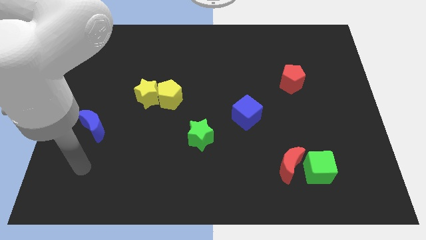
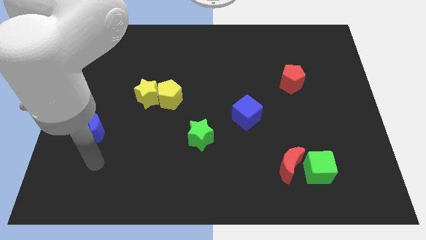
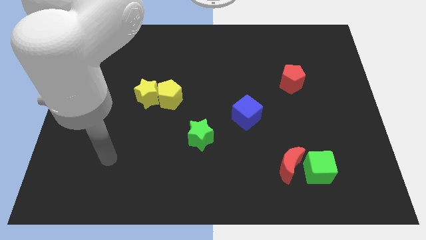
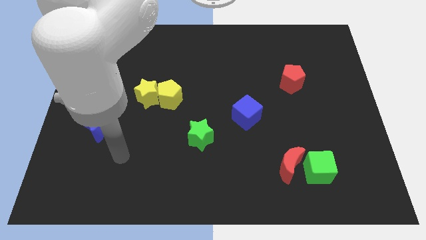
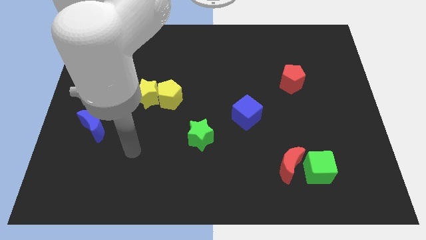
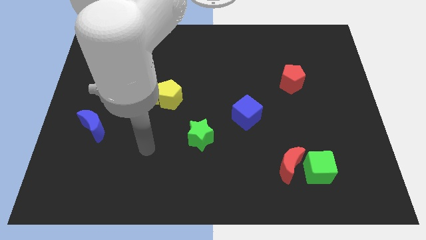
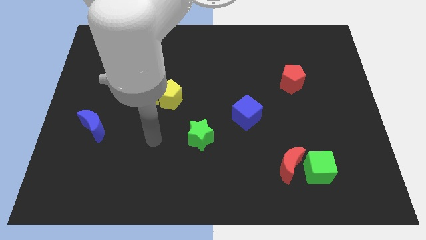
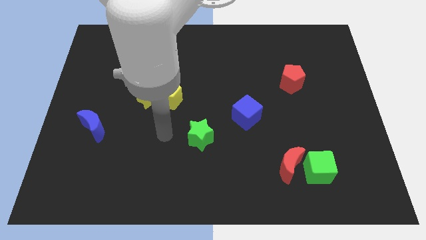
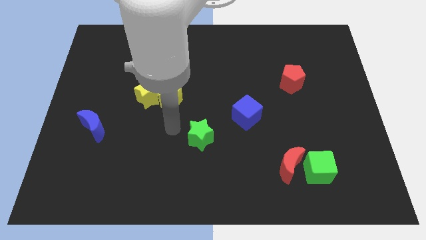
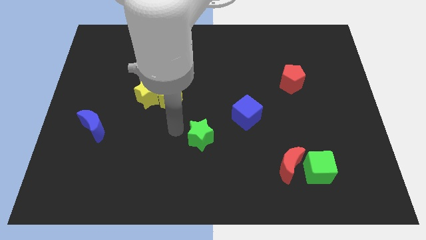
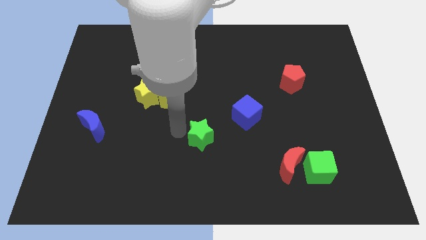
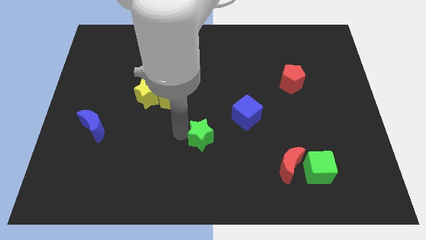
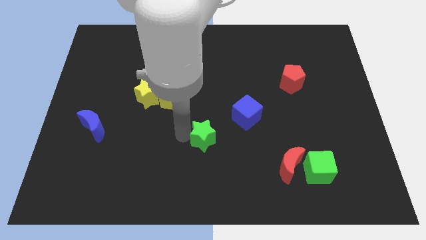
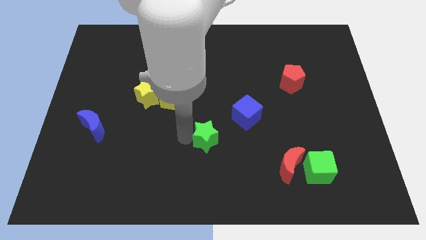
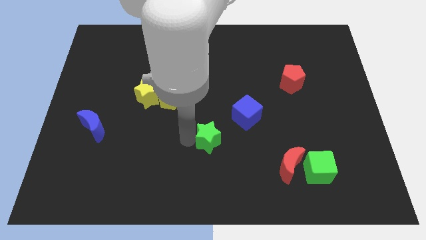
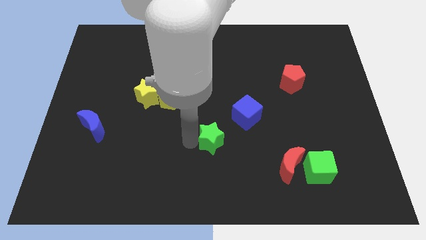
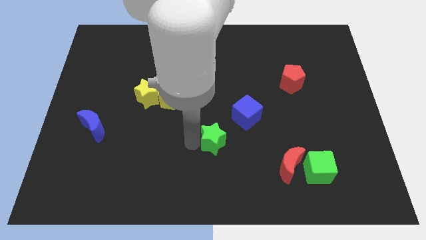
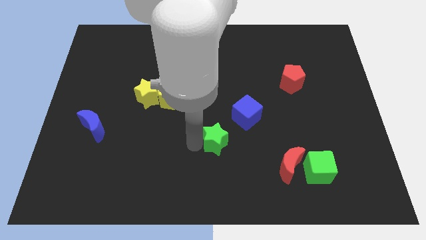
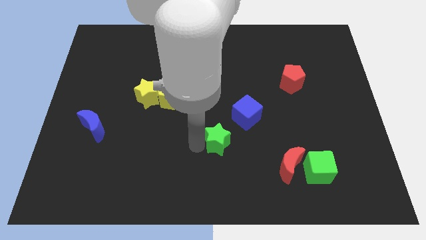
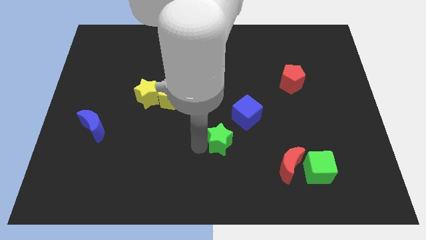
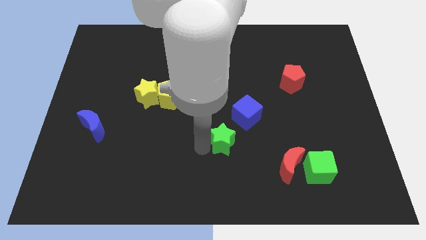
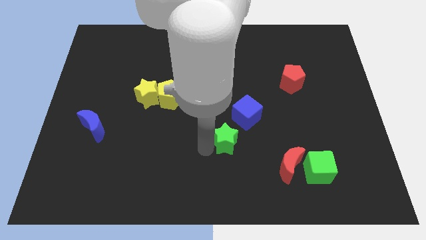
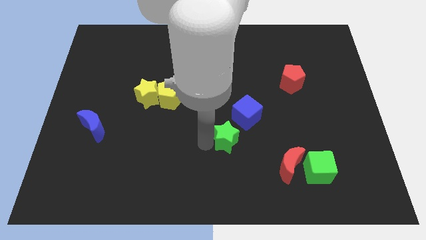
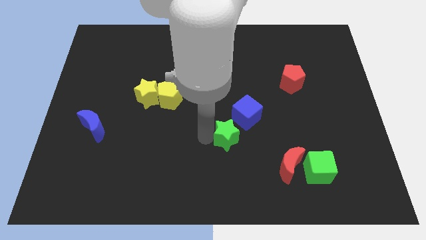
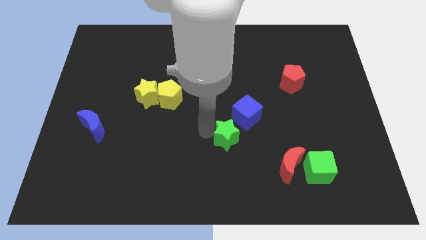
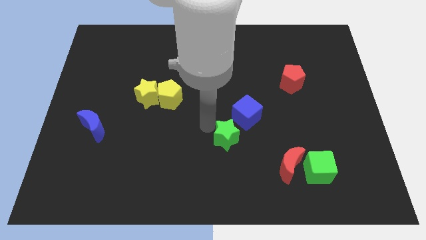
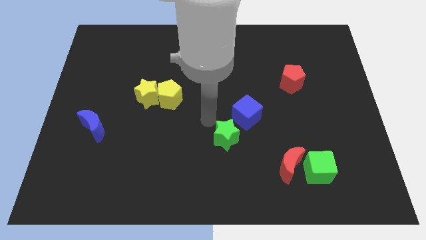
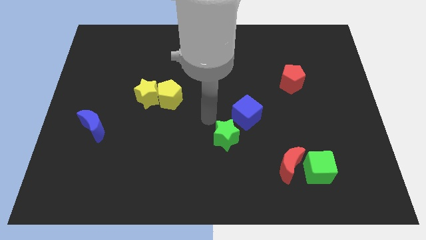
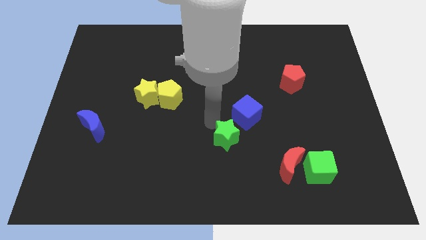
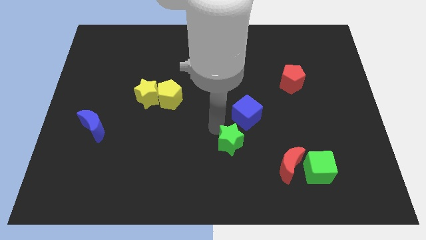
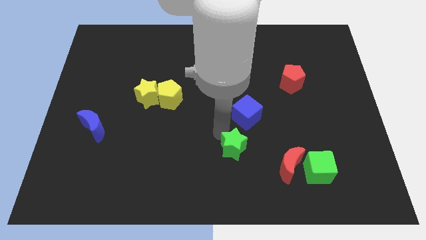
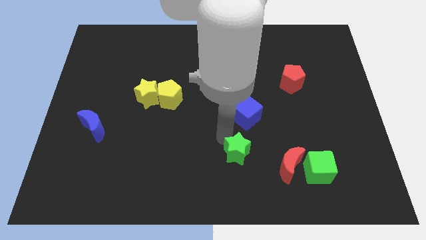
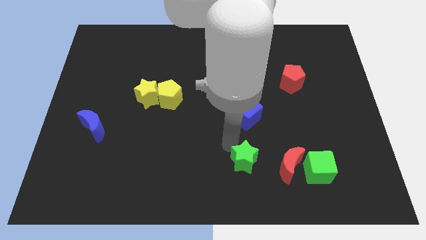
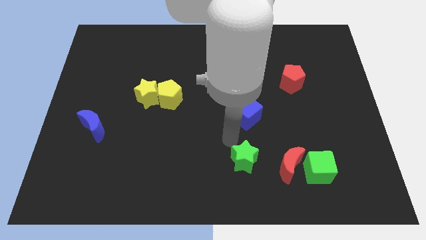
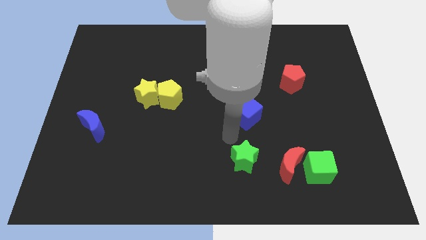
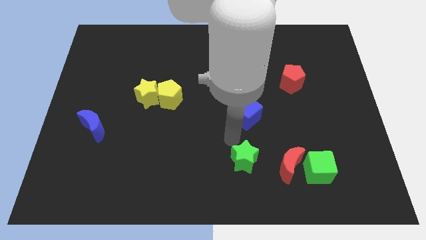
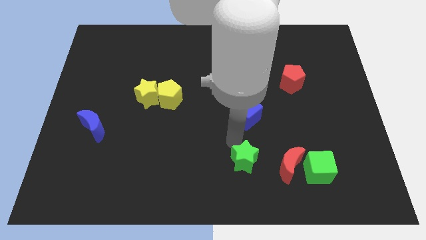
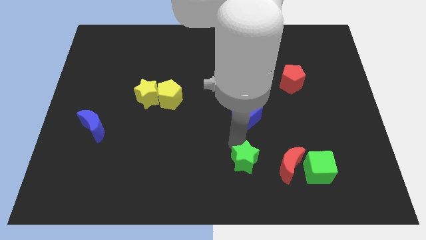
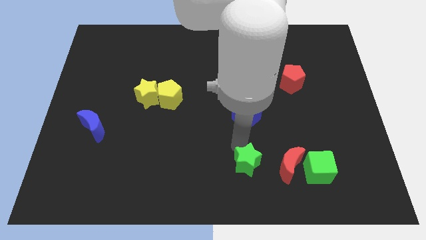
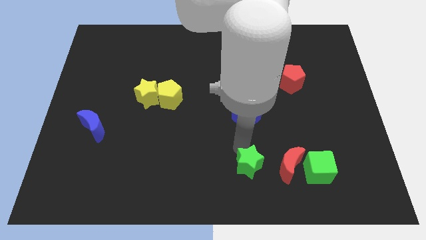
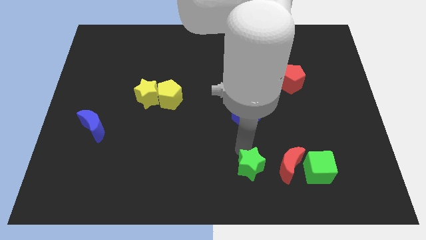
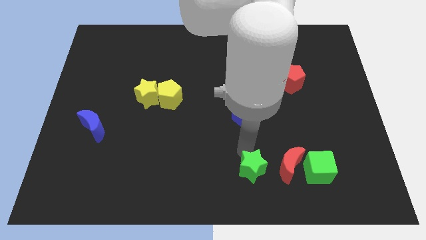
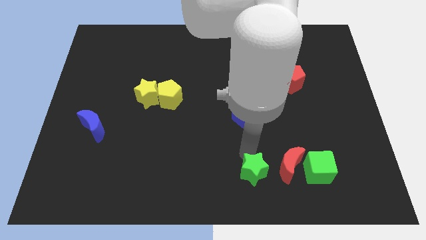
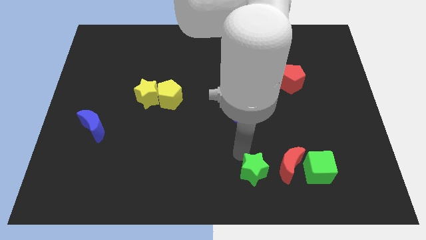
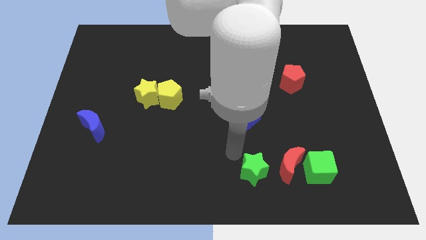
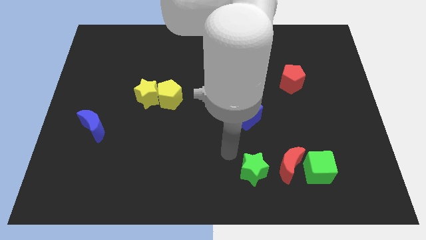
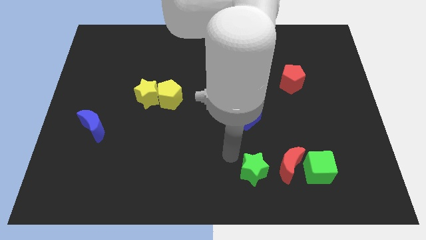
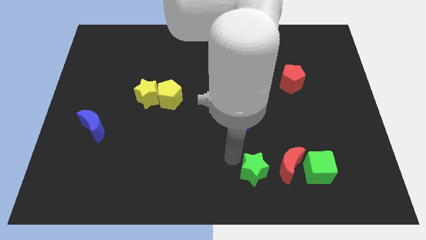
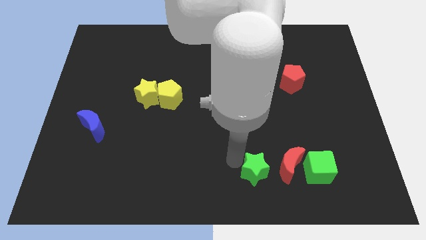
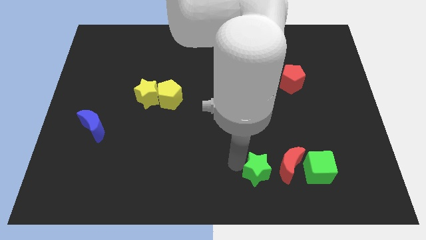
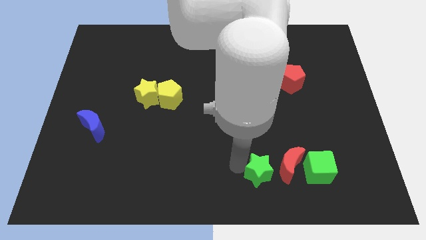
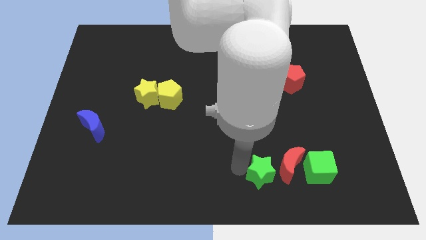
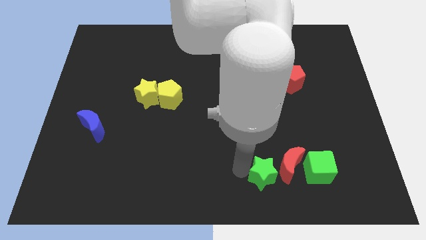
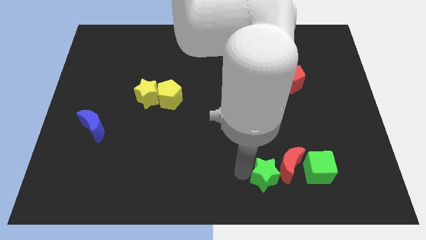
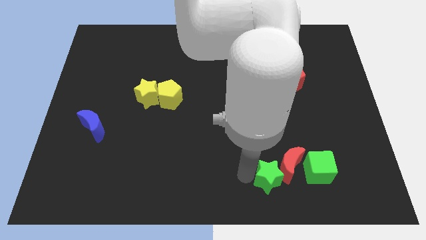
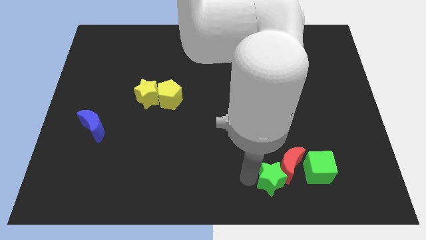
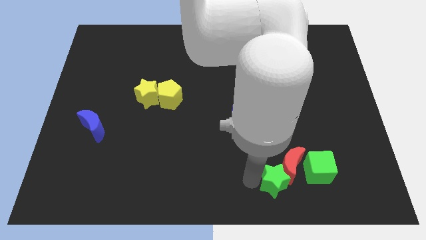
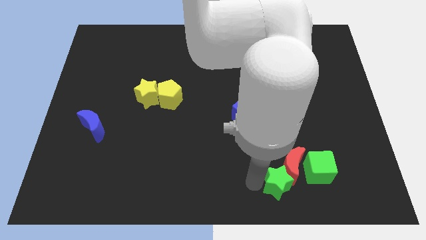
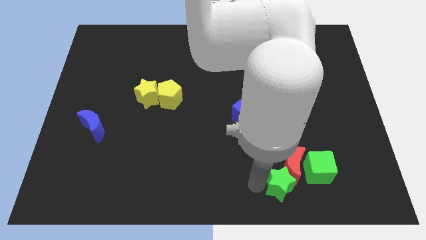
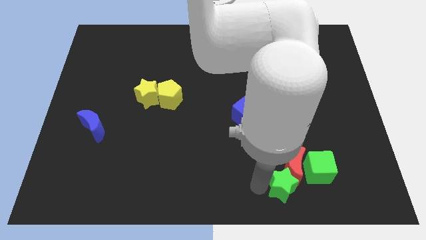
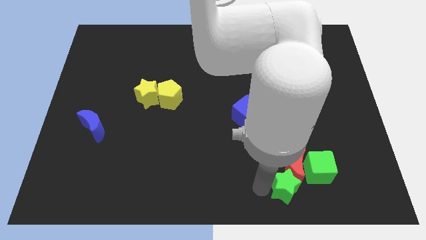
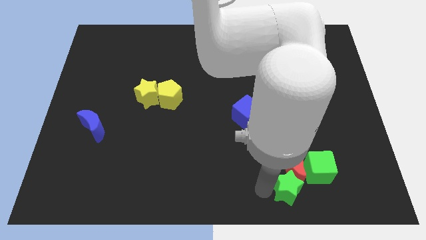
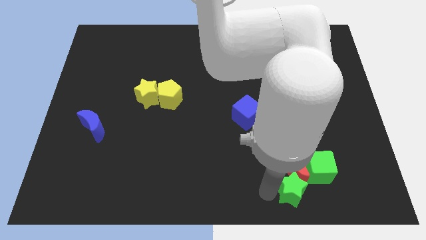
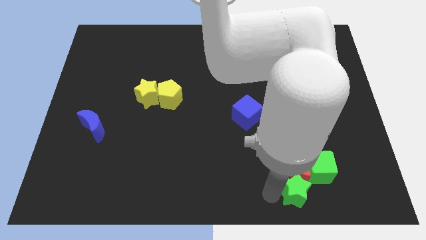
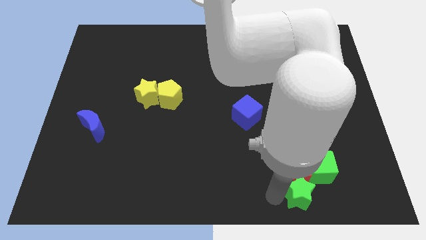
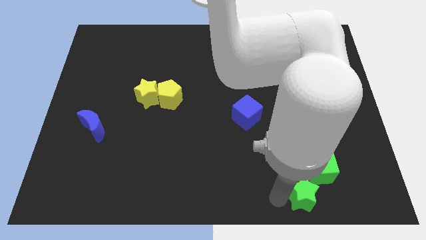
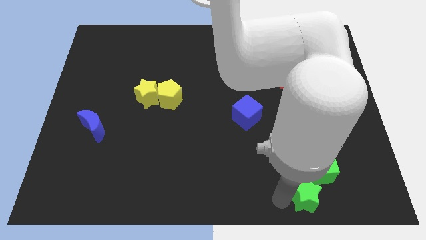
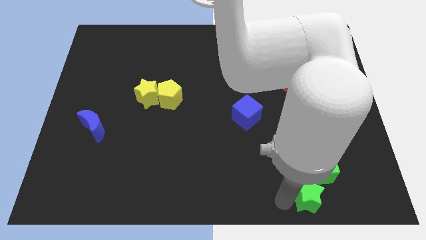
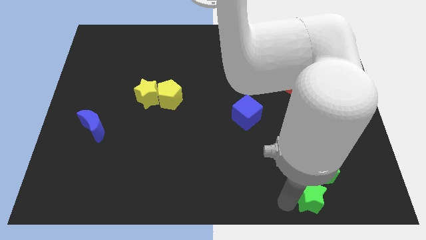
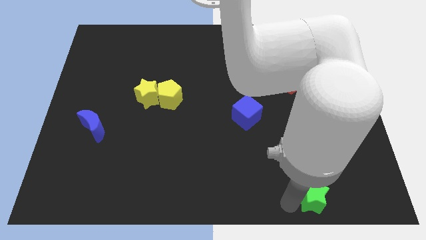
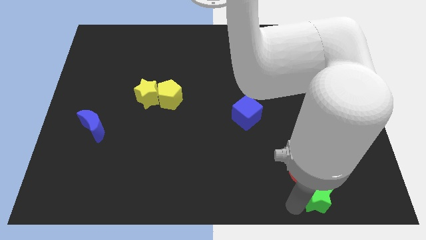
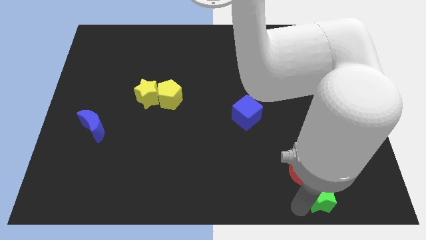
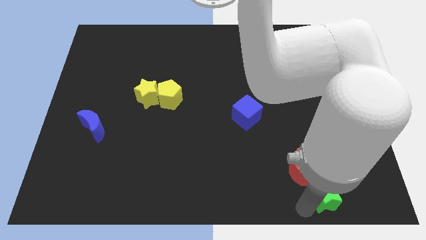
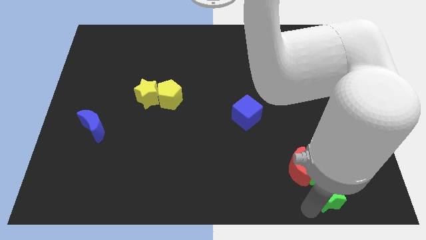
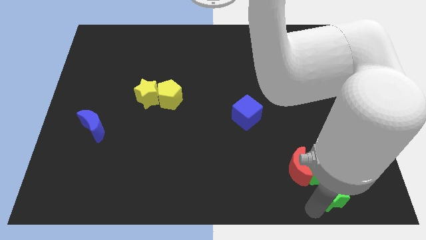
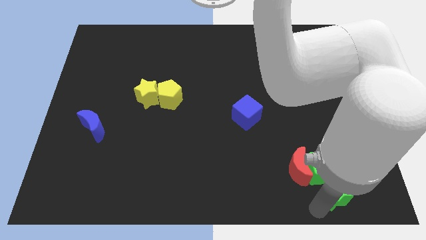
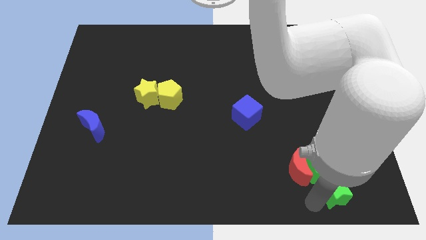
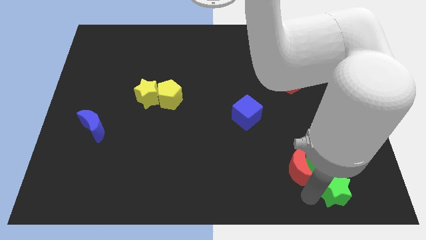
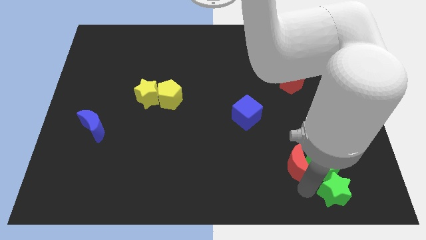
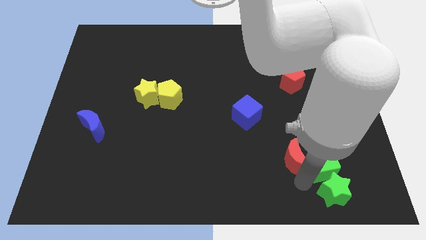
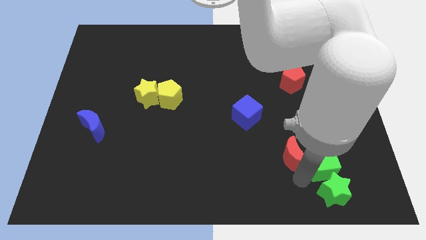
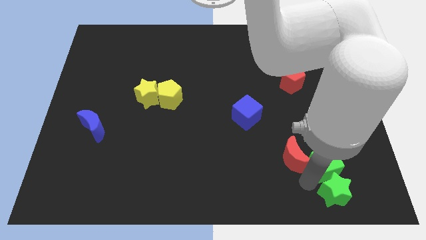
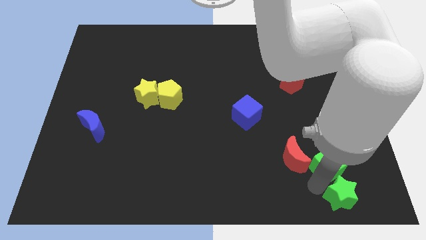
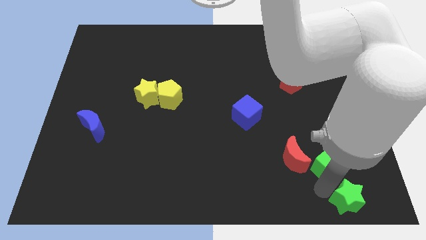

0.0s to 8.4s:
put the green star to the bottom right of the board
